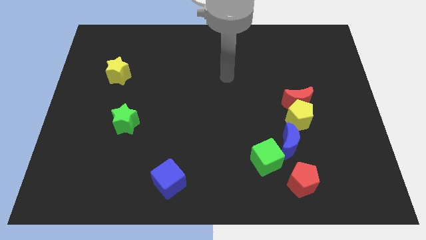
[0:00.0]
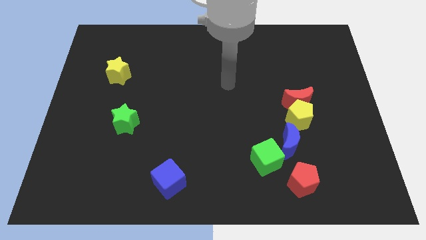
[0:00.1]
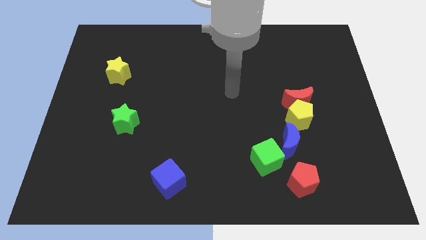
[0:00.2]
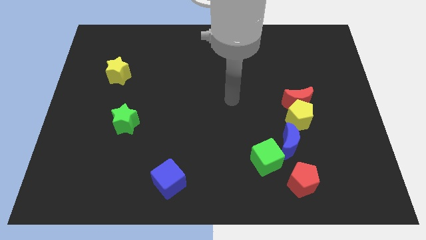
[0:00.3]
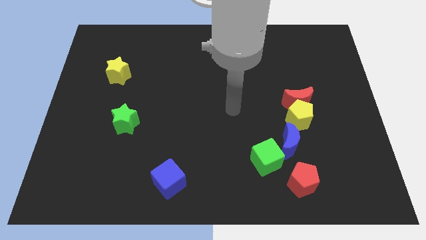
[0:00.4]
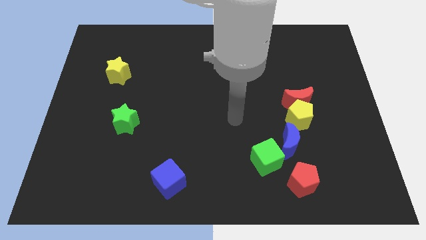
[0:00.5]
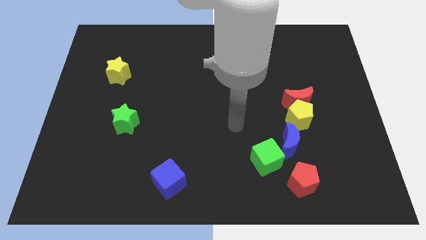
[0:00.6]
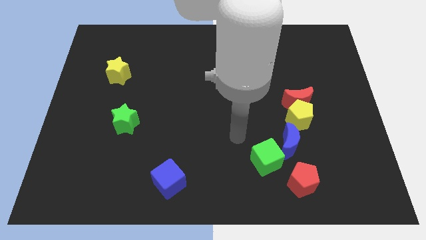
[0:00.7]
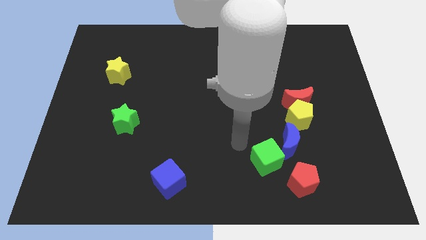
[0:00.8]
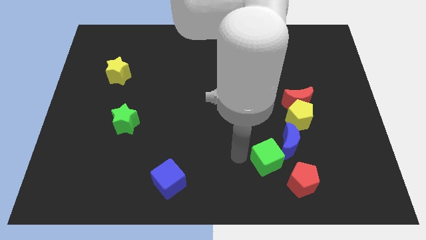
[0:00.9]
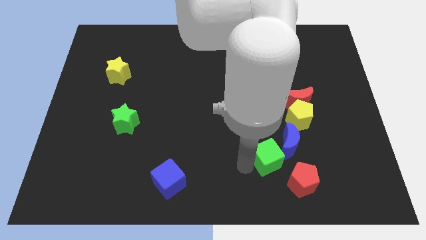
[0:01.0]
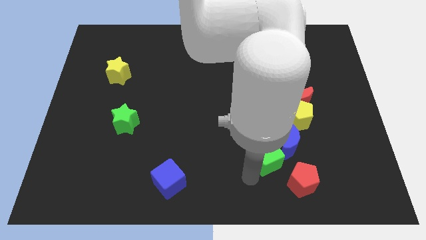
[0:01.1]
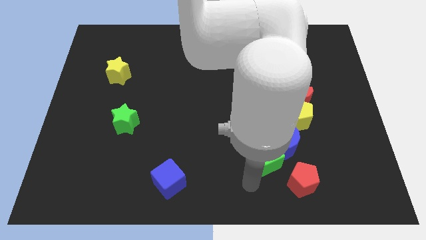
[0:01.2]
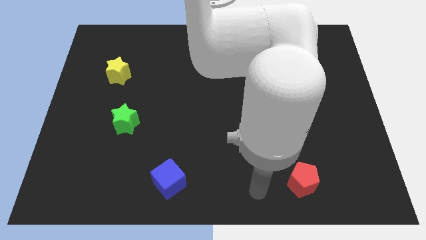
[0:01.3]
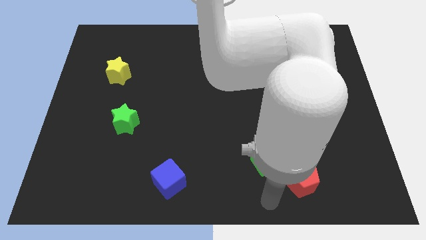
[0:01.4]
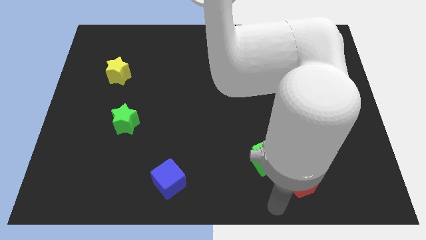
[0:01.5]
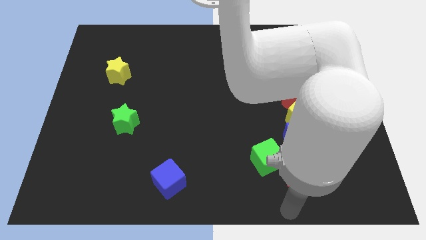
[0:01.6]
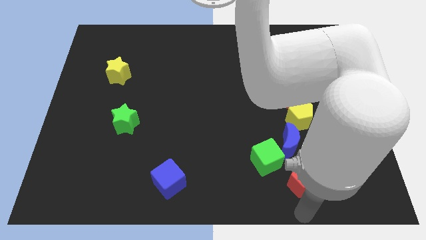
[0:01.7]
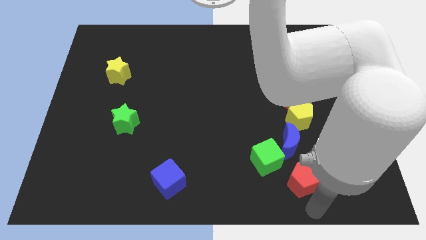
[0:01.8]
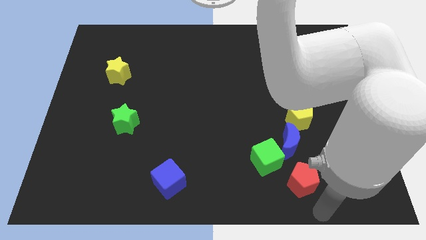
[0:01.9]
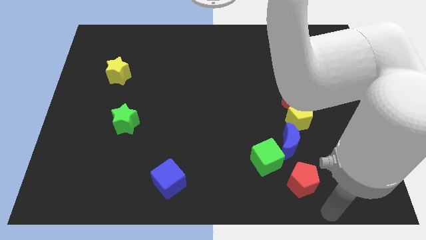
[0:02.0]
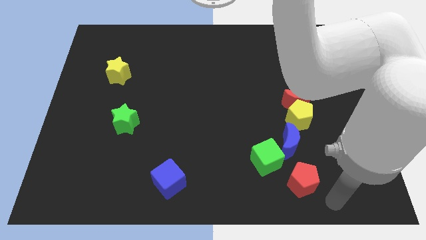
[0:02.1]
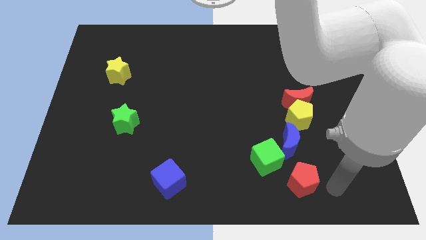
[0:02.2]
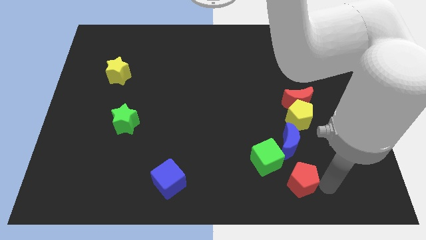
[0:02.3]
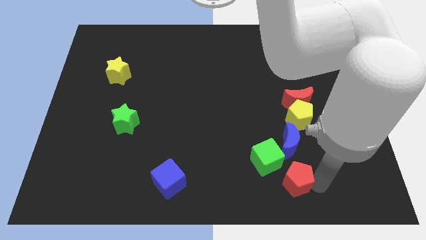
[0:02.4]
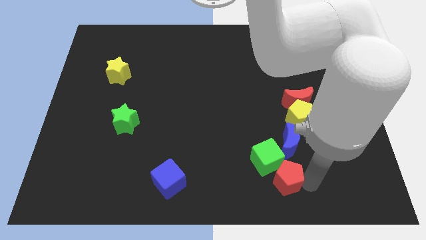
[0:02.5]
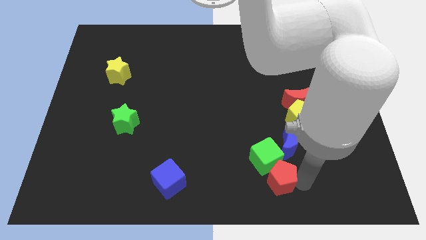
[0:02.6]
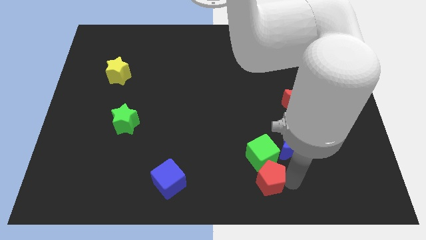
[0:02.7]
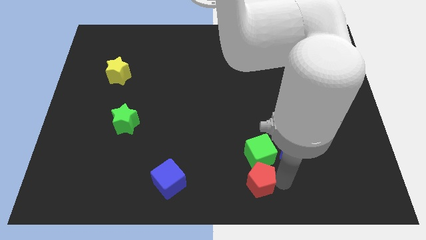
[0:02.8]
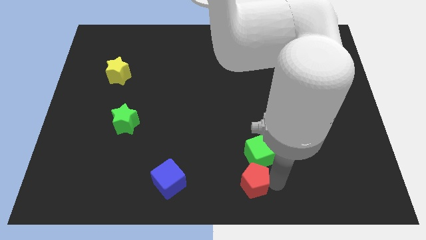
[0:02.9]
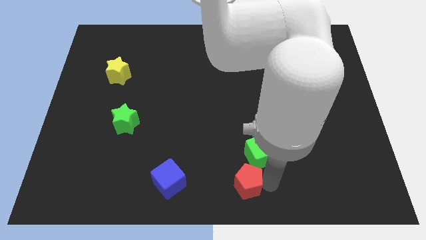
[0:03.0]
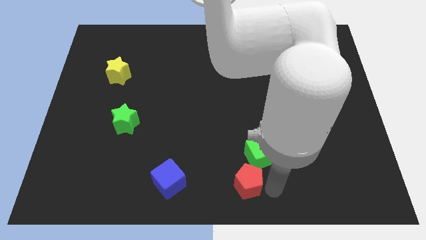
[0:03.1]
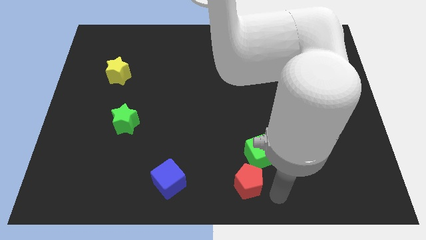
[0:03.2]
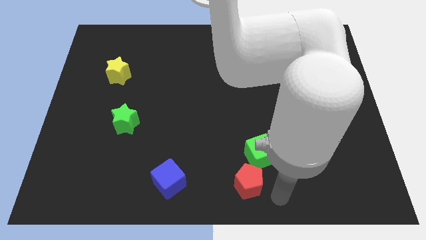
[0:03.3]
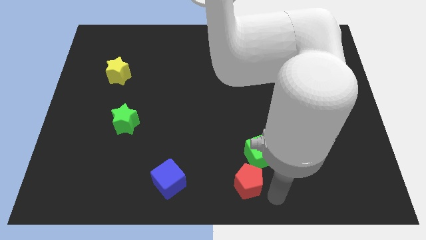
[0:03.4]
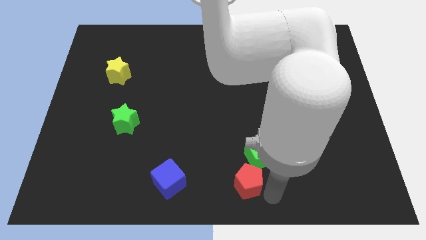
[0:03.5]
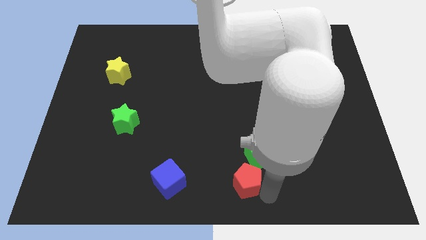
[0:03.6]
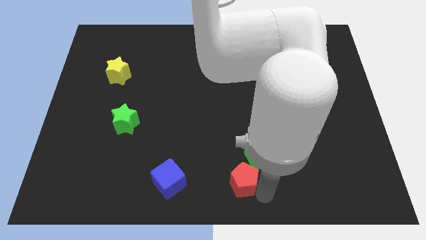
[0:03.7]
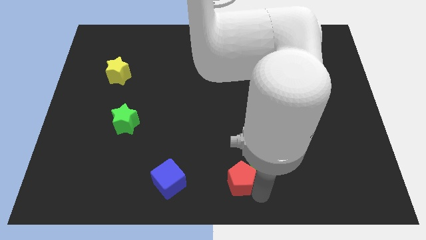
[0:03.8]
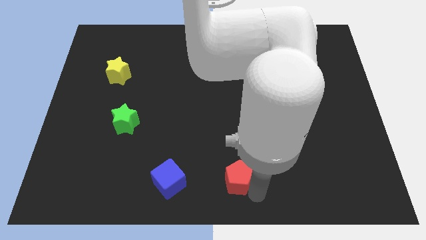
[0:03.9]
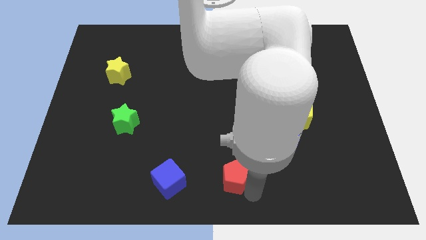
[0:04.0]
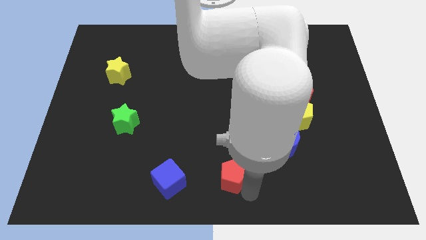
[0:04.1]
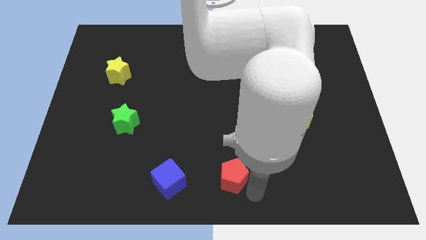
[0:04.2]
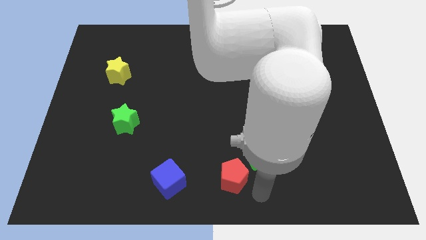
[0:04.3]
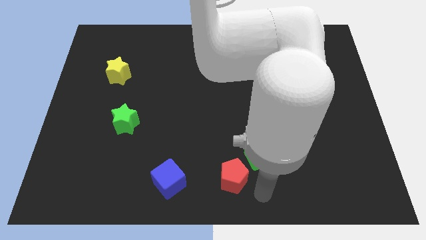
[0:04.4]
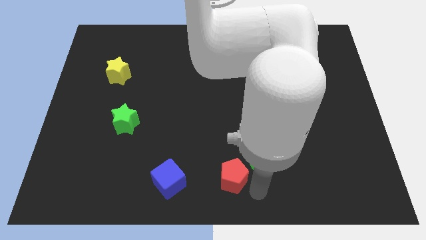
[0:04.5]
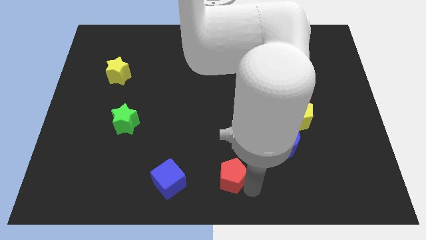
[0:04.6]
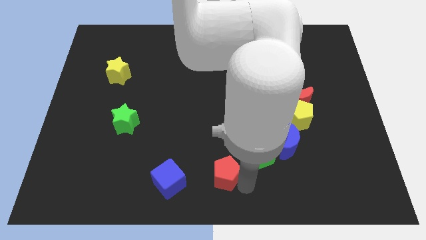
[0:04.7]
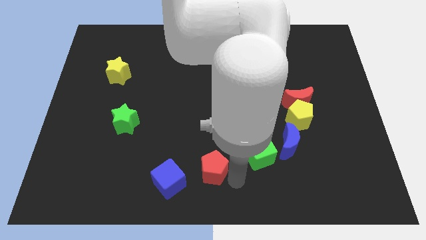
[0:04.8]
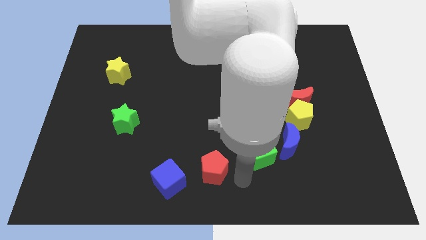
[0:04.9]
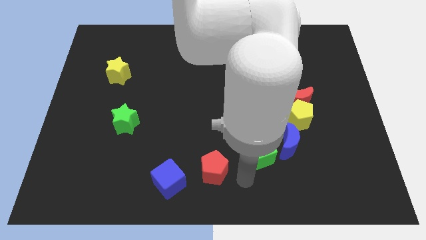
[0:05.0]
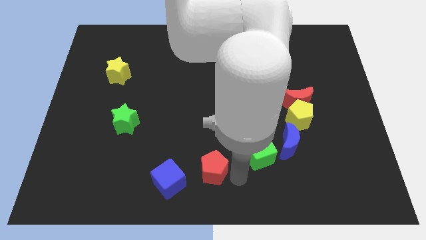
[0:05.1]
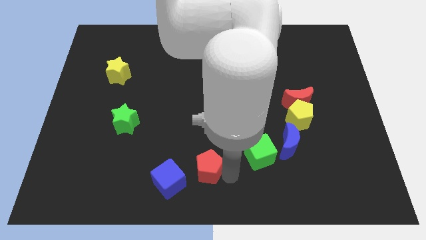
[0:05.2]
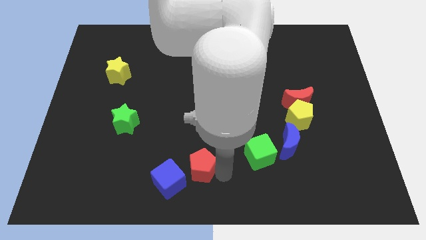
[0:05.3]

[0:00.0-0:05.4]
move the red pentagon left

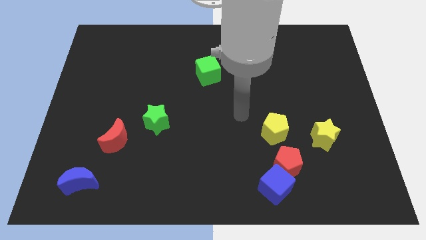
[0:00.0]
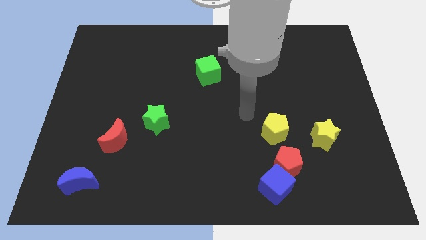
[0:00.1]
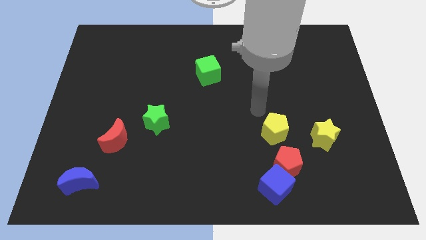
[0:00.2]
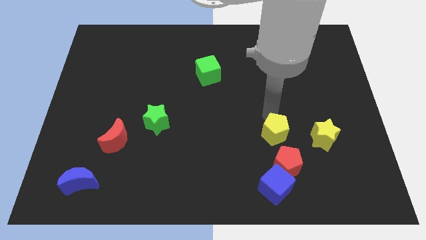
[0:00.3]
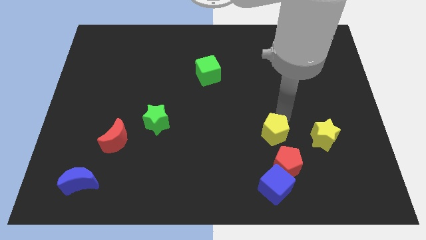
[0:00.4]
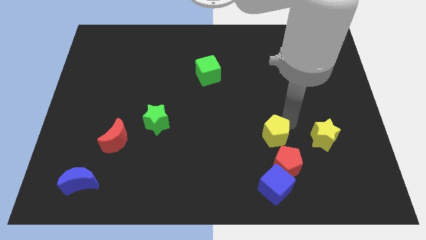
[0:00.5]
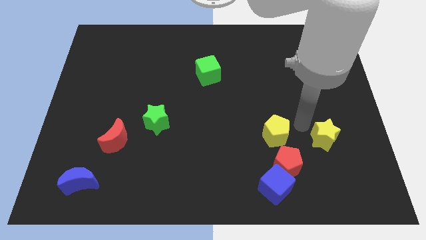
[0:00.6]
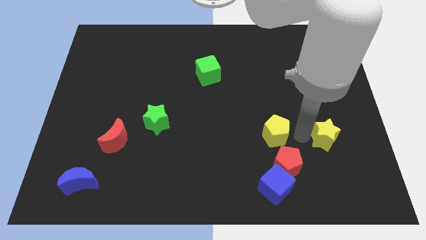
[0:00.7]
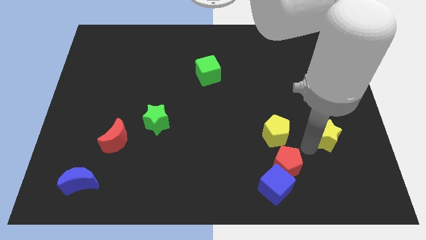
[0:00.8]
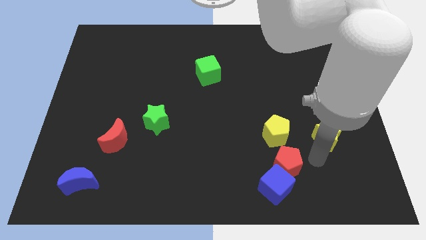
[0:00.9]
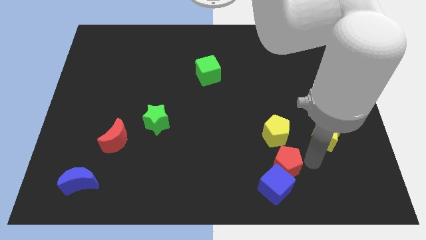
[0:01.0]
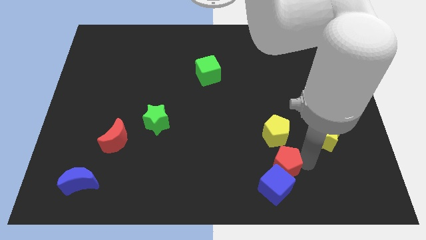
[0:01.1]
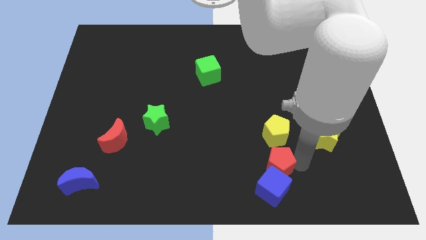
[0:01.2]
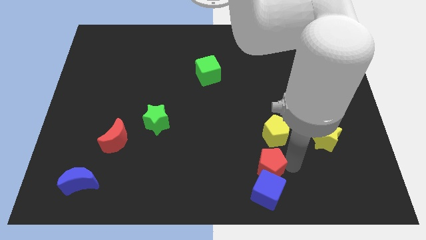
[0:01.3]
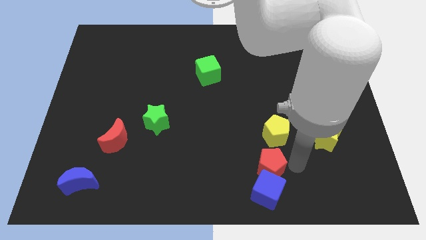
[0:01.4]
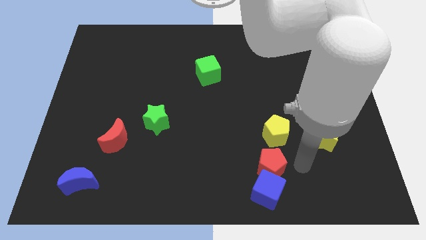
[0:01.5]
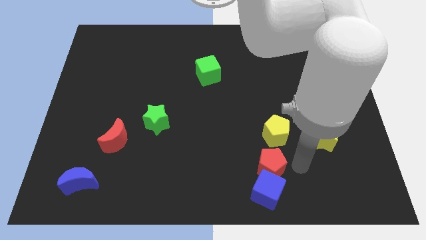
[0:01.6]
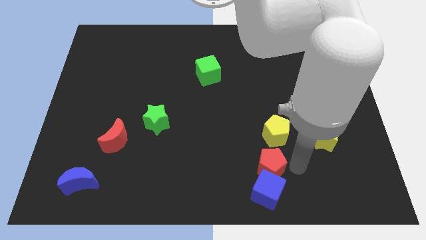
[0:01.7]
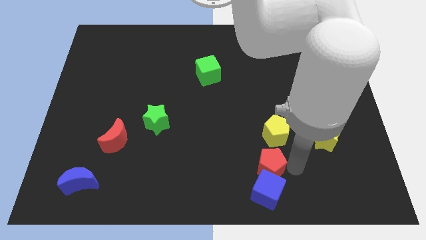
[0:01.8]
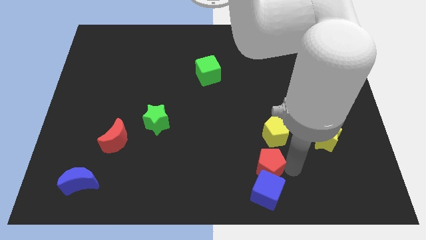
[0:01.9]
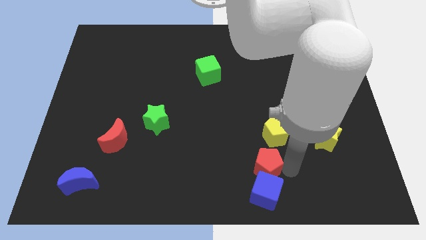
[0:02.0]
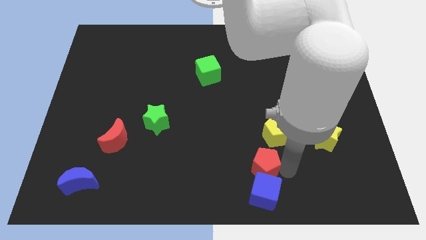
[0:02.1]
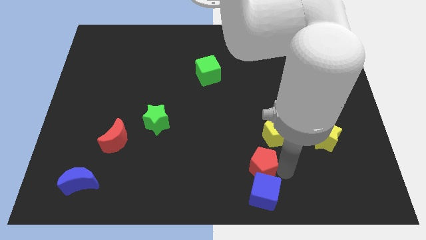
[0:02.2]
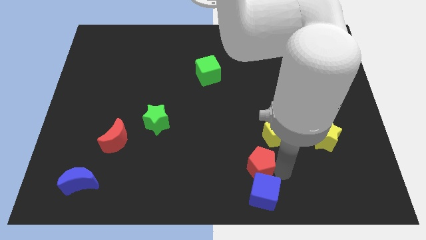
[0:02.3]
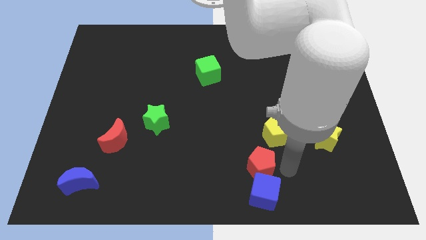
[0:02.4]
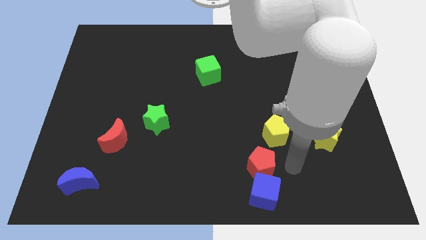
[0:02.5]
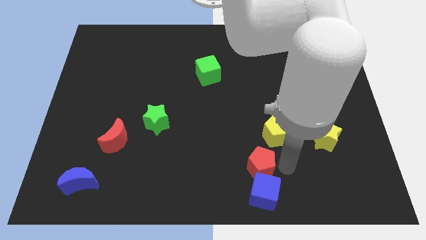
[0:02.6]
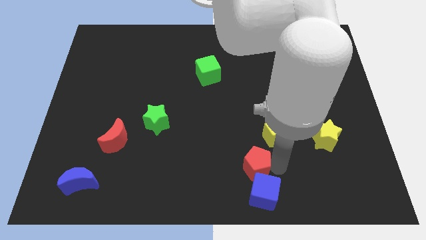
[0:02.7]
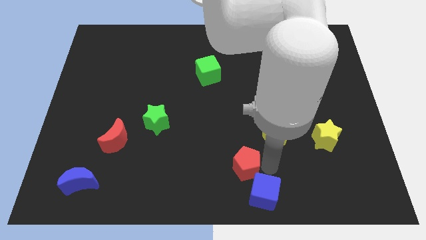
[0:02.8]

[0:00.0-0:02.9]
move the red pentagon a bit left

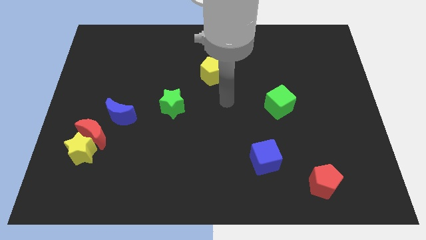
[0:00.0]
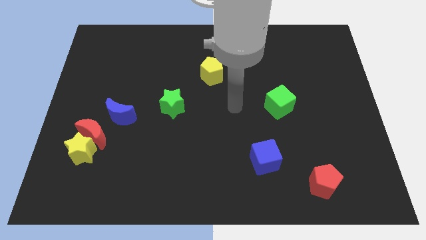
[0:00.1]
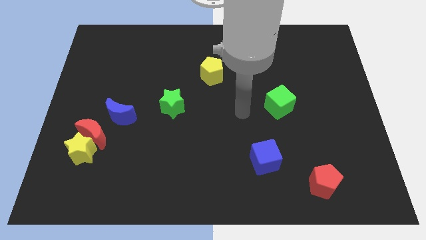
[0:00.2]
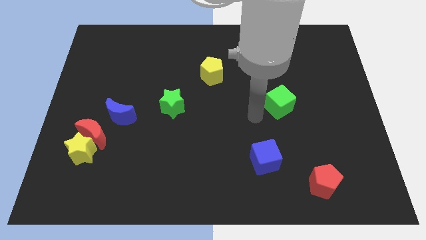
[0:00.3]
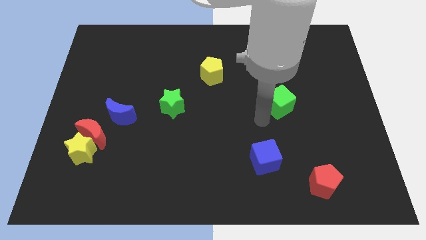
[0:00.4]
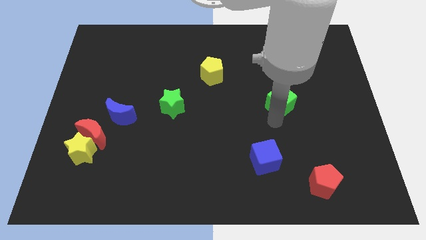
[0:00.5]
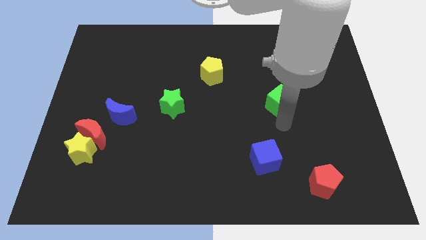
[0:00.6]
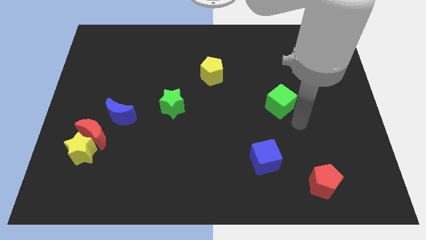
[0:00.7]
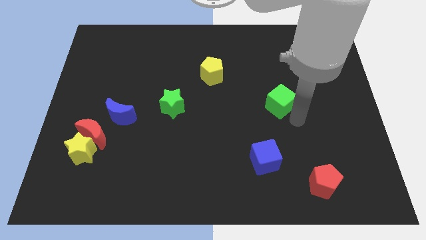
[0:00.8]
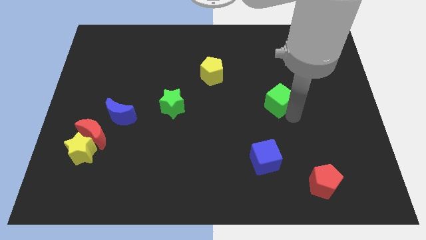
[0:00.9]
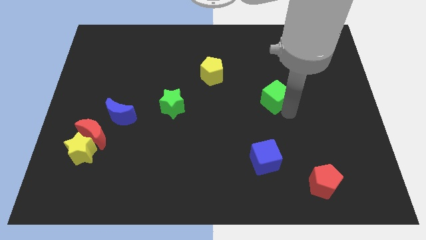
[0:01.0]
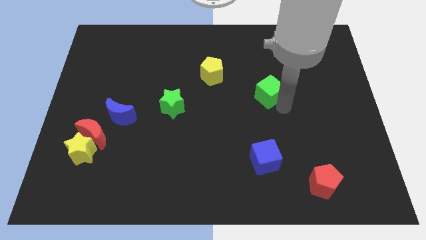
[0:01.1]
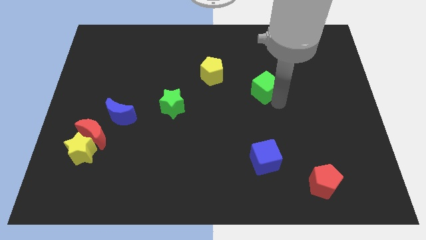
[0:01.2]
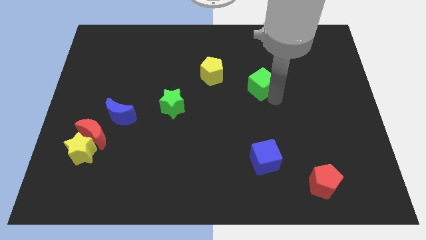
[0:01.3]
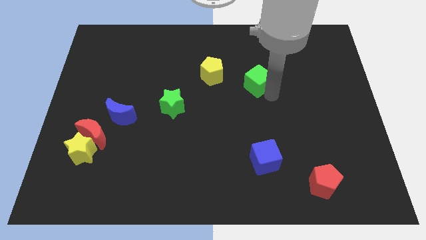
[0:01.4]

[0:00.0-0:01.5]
slide the green cube up and then to the left somewhat
